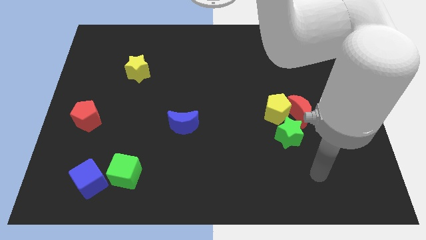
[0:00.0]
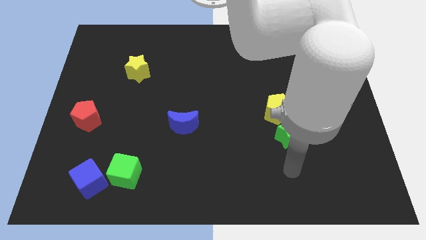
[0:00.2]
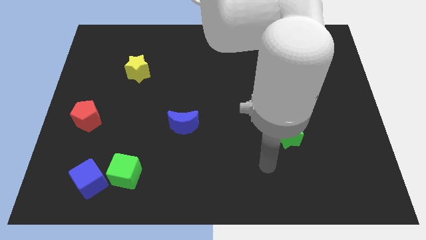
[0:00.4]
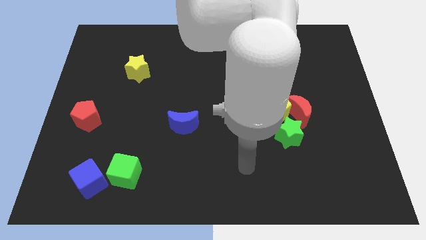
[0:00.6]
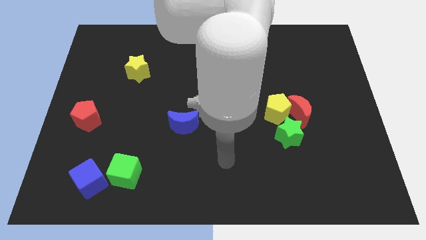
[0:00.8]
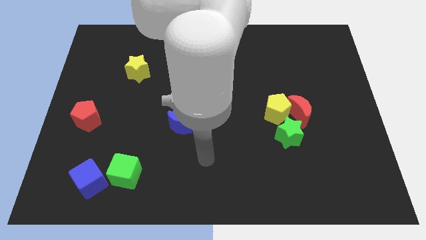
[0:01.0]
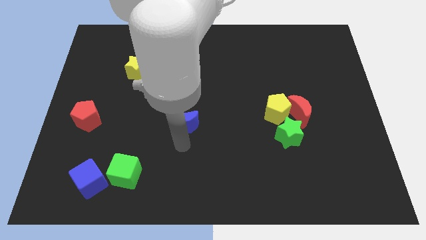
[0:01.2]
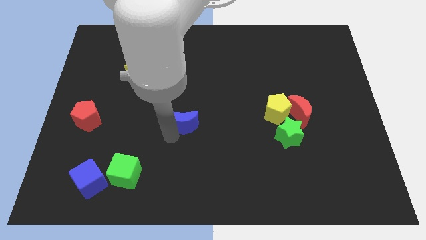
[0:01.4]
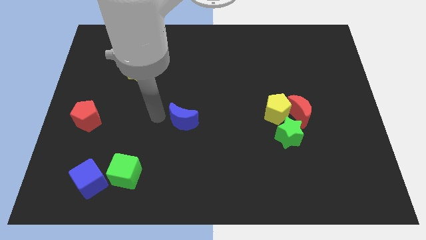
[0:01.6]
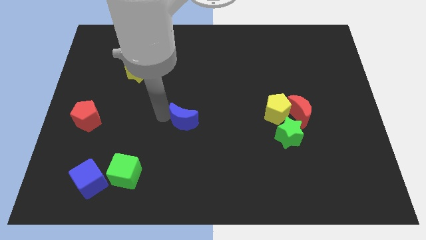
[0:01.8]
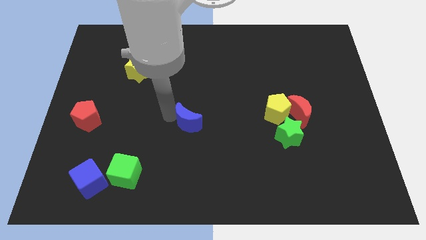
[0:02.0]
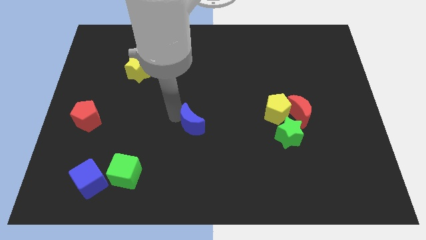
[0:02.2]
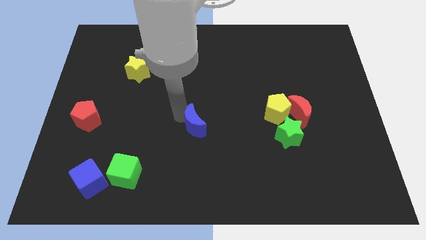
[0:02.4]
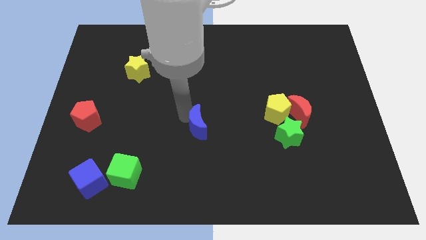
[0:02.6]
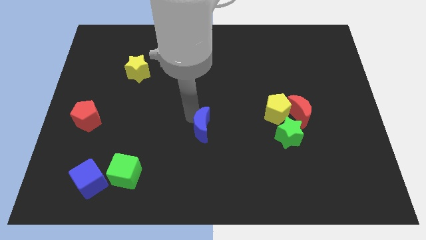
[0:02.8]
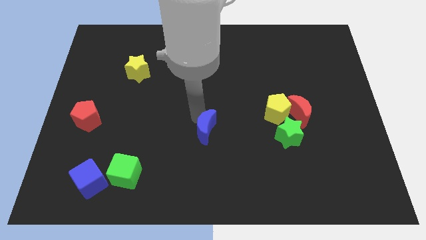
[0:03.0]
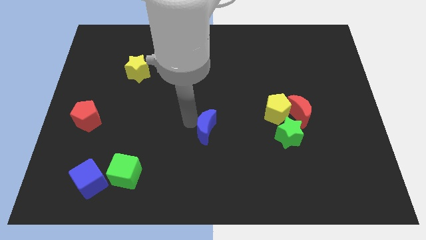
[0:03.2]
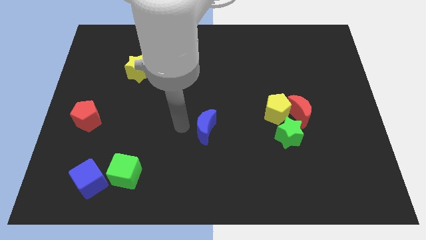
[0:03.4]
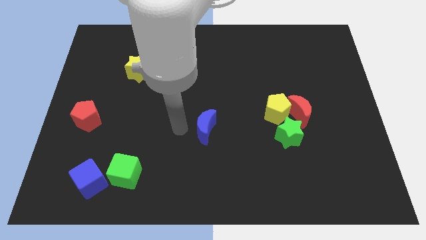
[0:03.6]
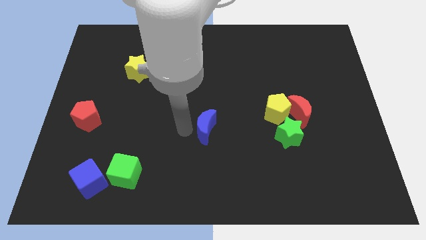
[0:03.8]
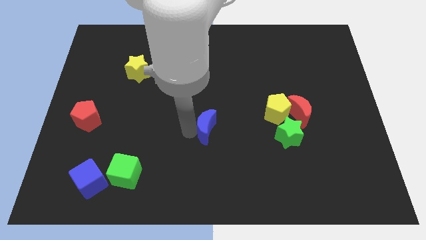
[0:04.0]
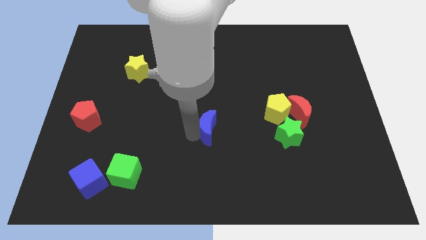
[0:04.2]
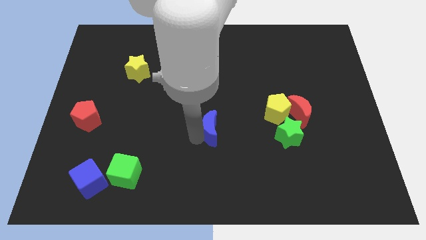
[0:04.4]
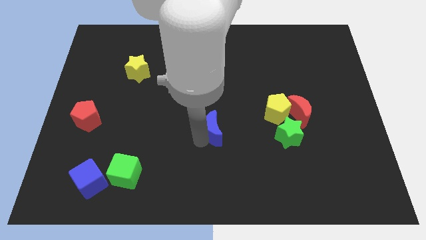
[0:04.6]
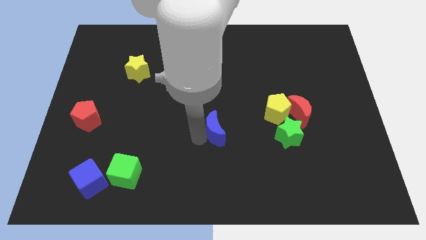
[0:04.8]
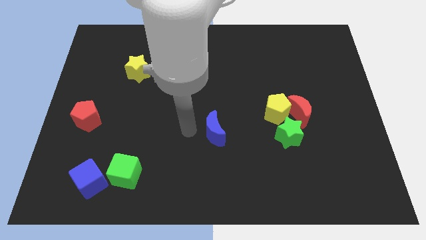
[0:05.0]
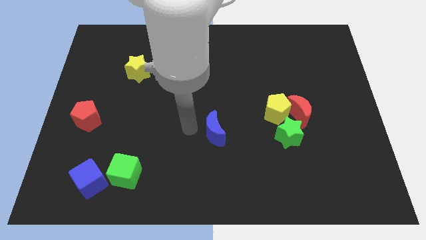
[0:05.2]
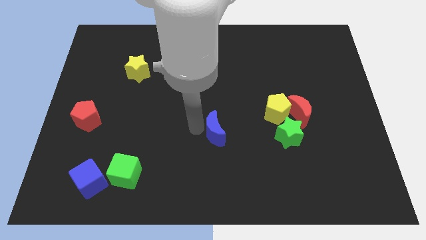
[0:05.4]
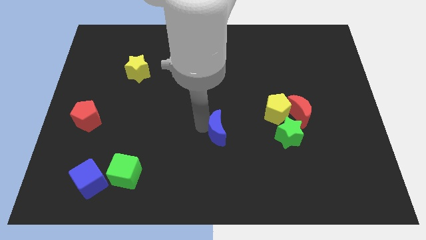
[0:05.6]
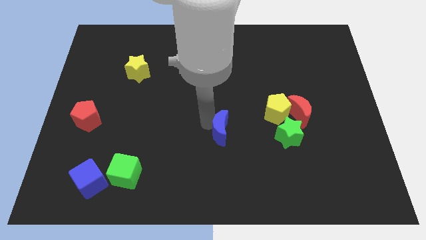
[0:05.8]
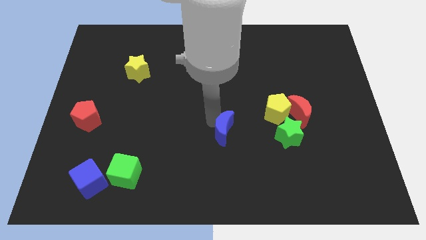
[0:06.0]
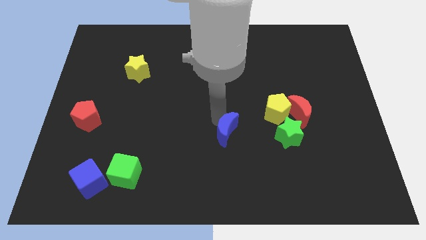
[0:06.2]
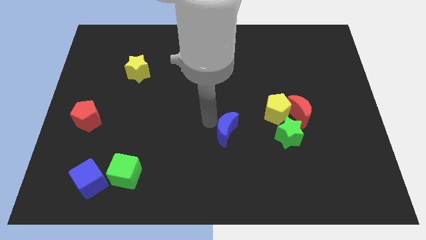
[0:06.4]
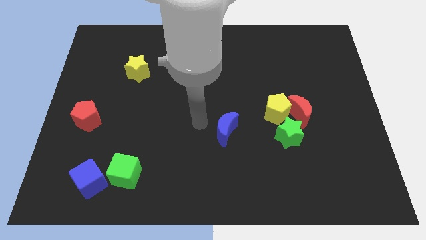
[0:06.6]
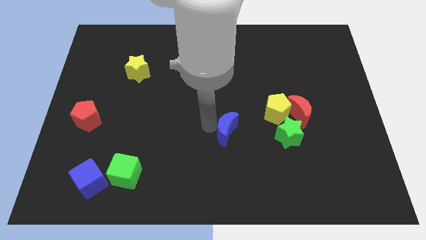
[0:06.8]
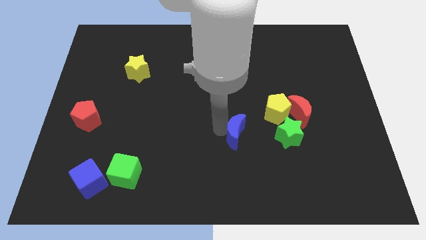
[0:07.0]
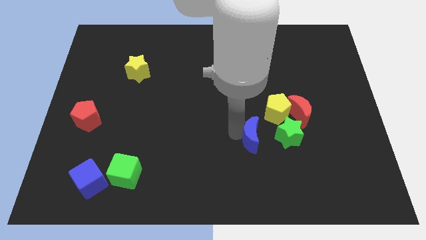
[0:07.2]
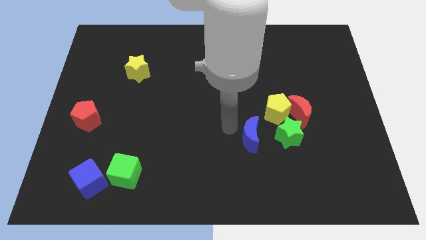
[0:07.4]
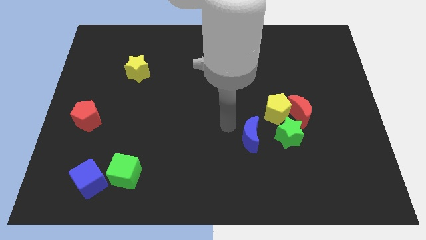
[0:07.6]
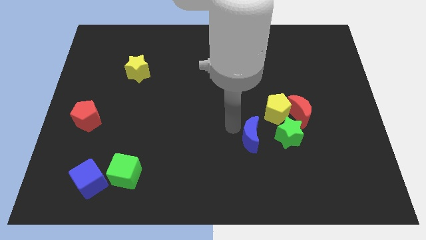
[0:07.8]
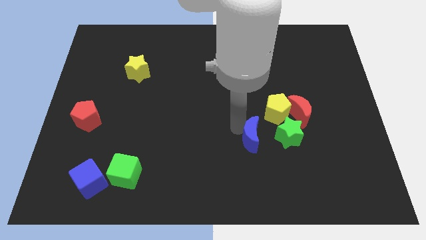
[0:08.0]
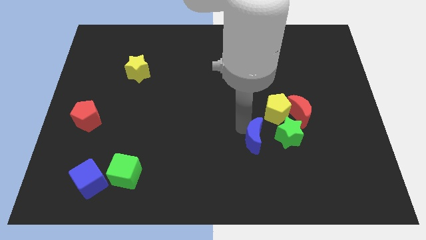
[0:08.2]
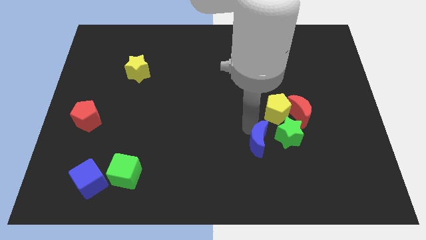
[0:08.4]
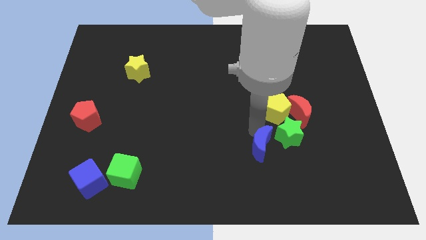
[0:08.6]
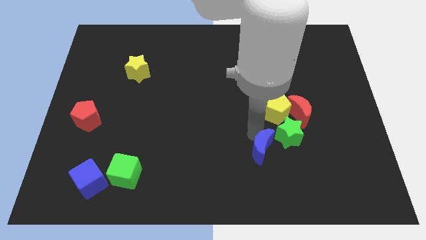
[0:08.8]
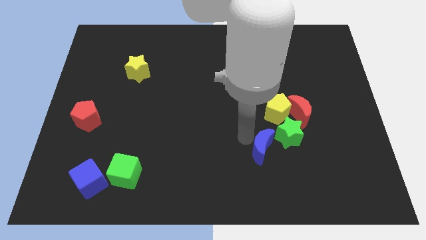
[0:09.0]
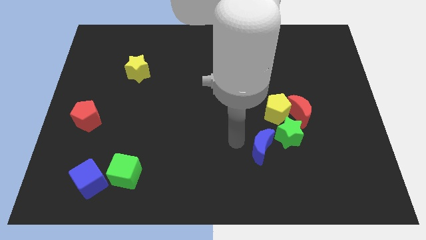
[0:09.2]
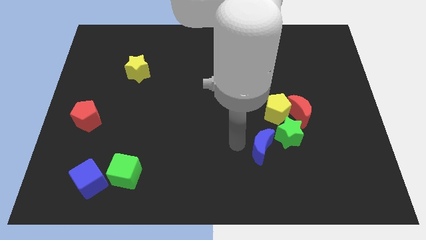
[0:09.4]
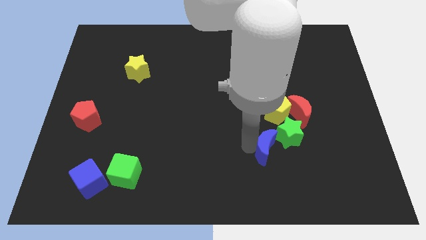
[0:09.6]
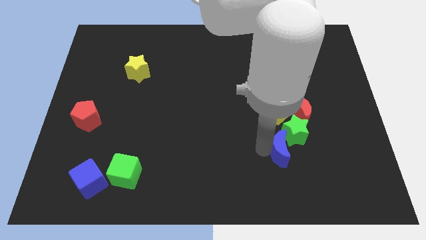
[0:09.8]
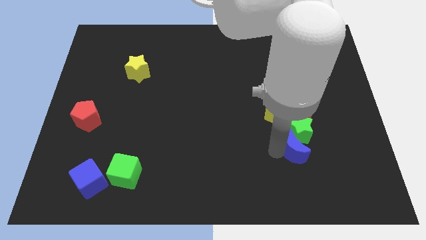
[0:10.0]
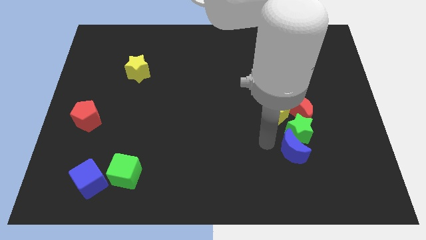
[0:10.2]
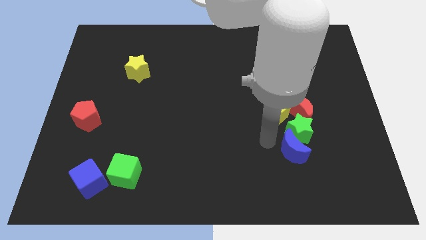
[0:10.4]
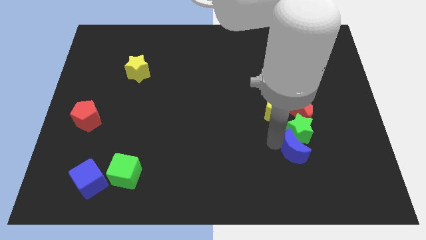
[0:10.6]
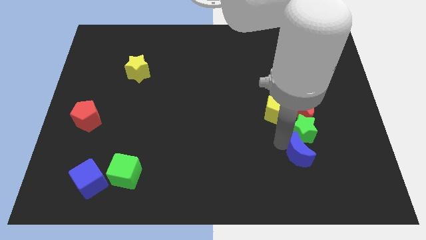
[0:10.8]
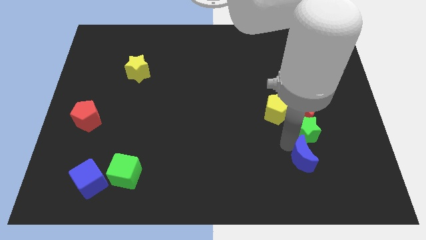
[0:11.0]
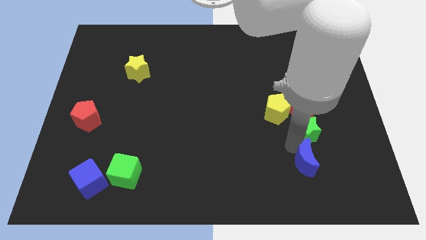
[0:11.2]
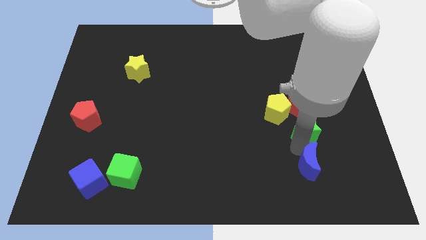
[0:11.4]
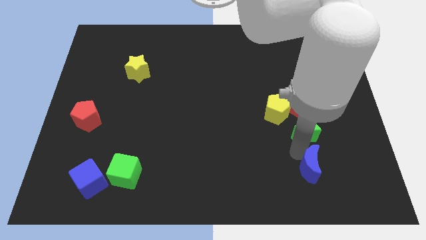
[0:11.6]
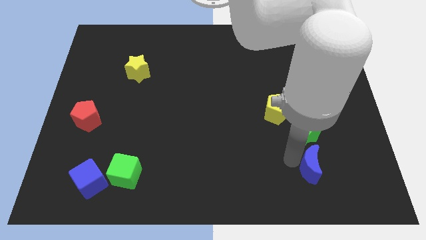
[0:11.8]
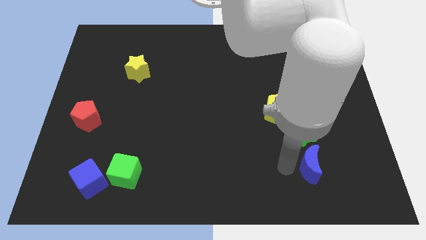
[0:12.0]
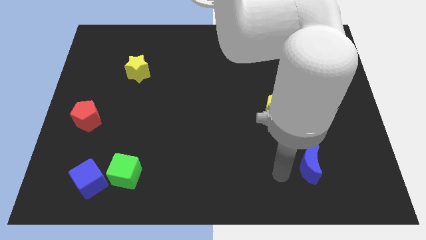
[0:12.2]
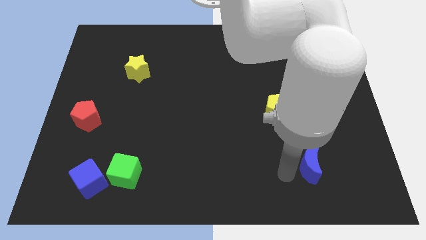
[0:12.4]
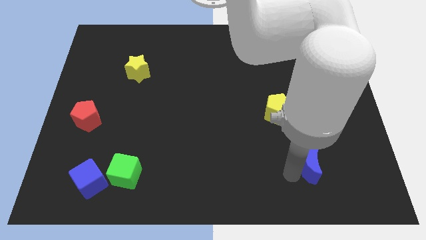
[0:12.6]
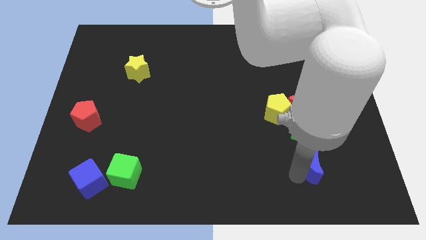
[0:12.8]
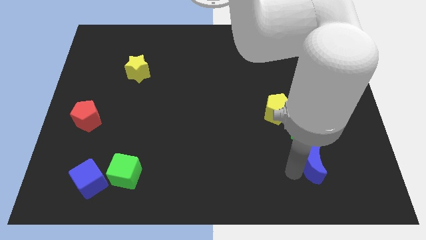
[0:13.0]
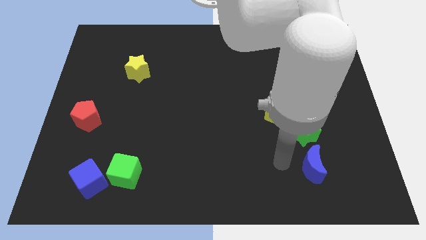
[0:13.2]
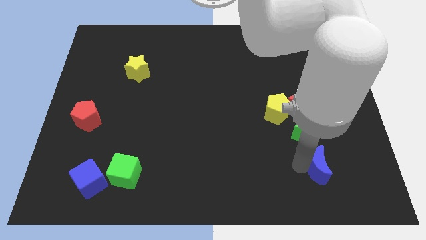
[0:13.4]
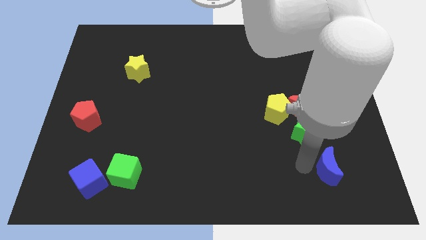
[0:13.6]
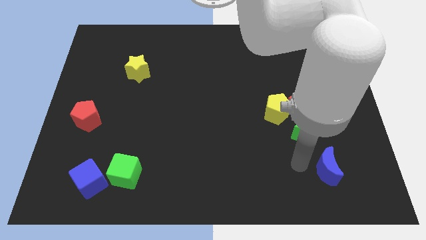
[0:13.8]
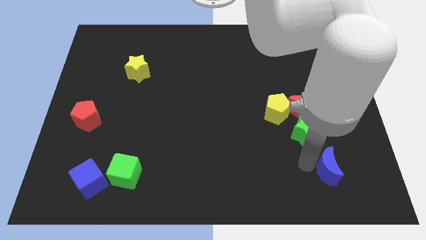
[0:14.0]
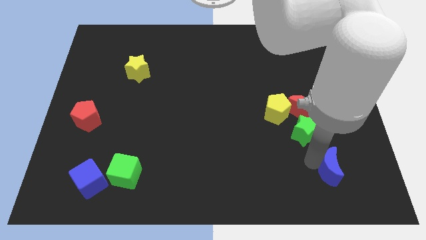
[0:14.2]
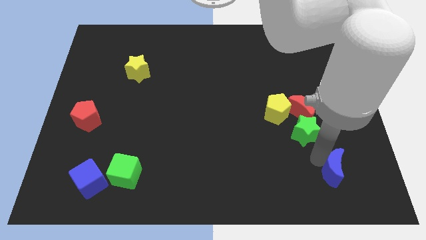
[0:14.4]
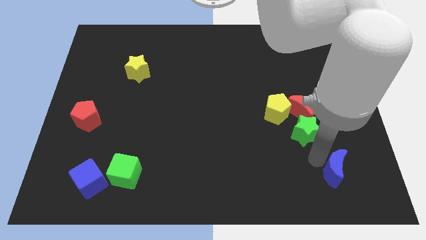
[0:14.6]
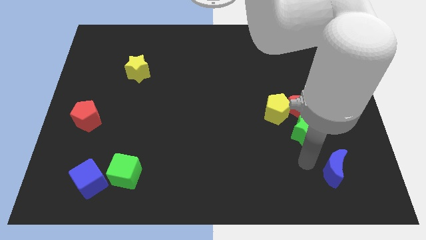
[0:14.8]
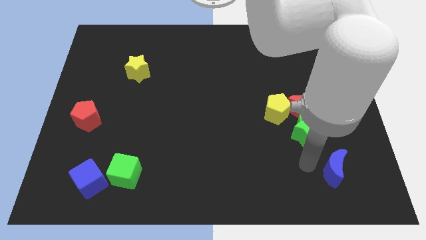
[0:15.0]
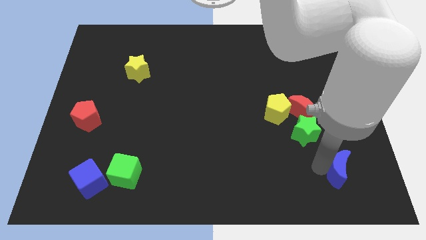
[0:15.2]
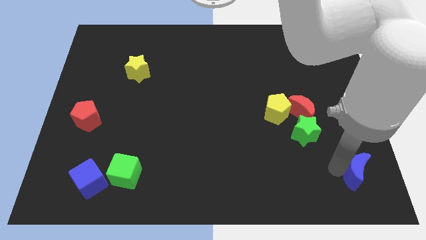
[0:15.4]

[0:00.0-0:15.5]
move the blue moon to the lower right corner
